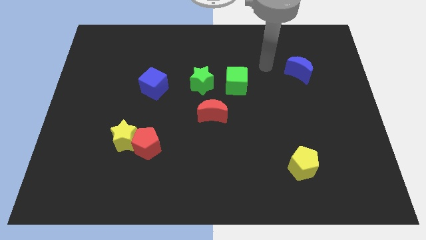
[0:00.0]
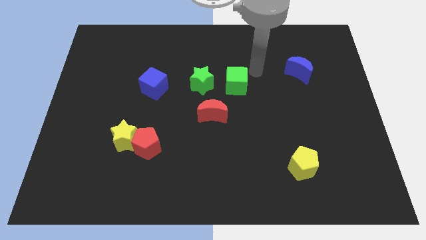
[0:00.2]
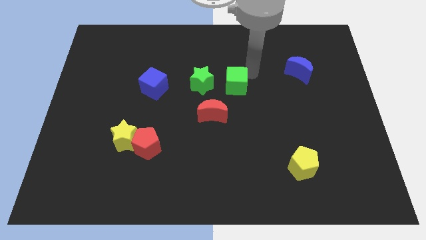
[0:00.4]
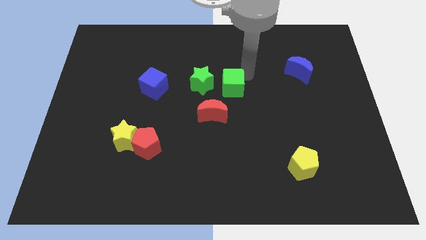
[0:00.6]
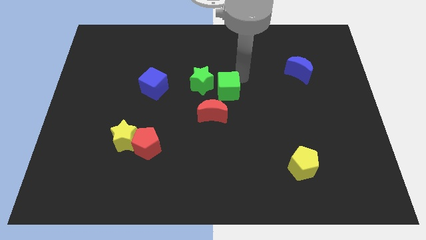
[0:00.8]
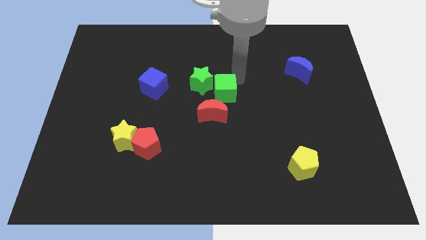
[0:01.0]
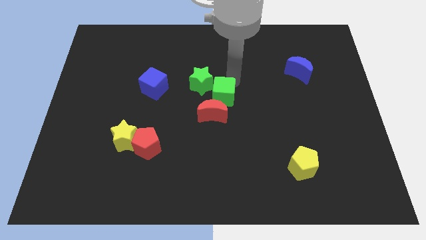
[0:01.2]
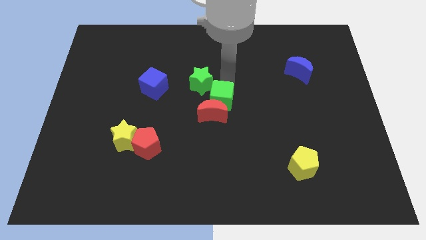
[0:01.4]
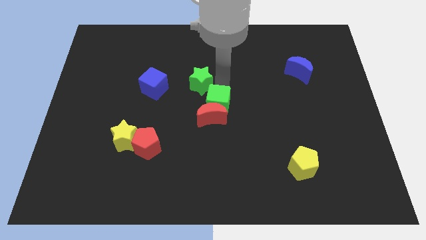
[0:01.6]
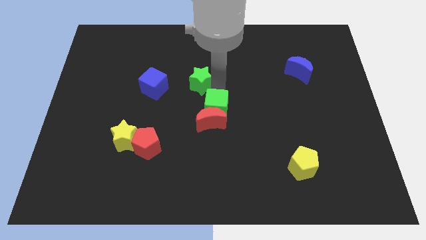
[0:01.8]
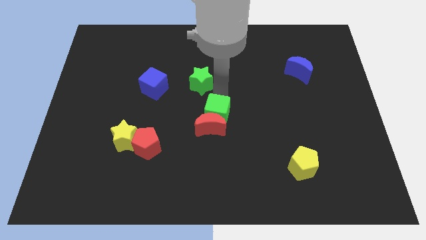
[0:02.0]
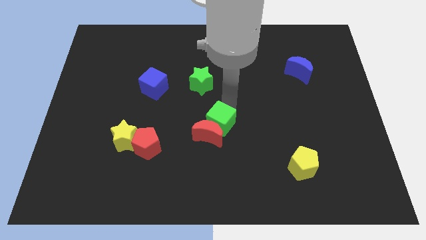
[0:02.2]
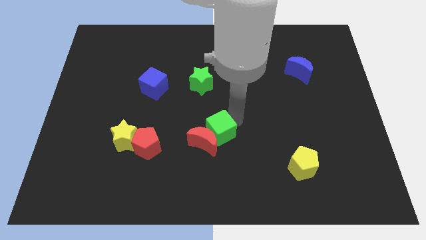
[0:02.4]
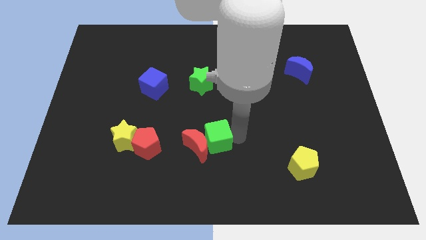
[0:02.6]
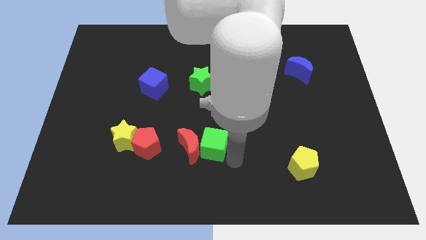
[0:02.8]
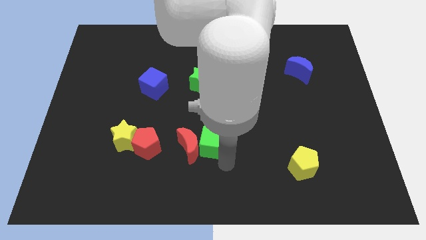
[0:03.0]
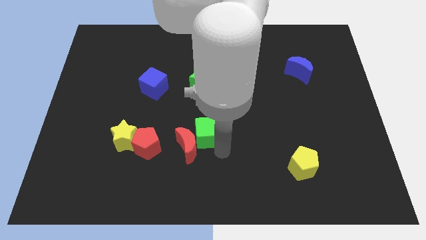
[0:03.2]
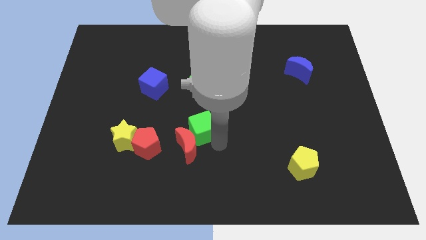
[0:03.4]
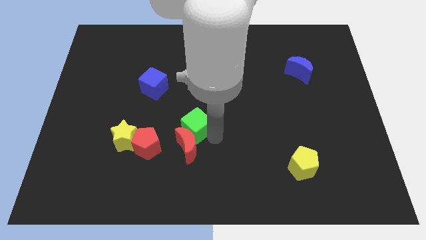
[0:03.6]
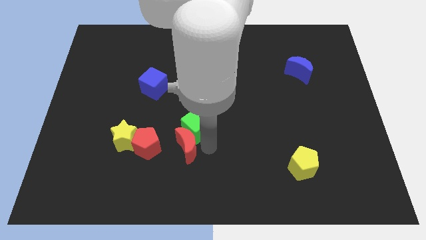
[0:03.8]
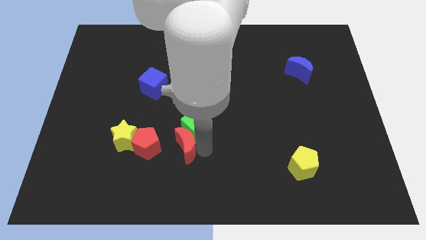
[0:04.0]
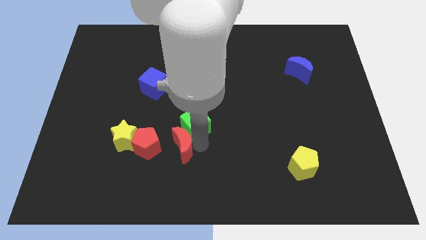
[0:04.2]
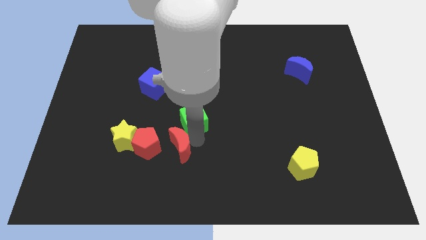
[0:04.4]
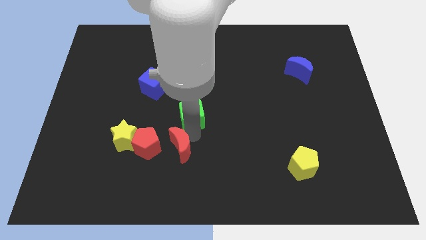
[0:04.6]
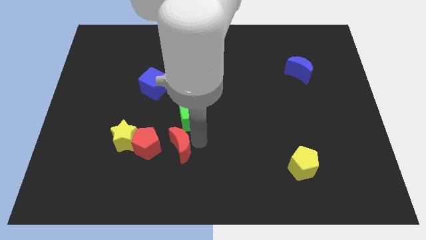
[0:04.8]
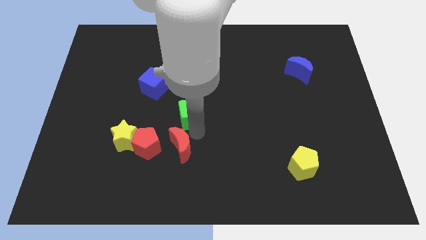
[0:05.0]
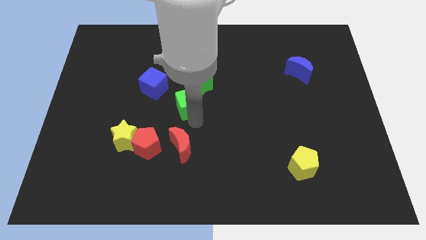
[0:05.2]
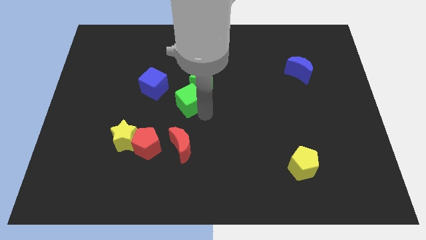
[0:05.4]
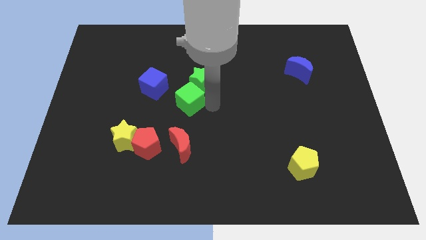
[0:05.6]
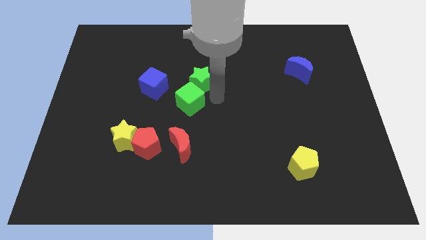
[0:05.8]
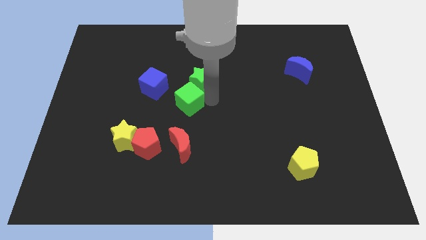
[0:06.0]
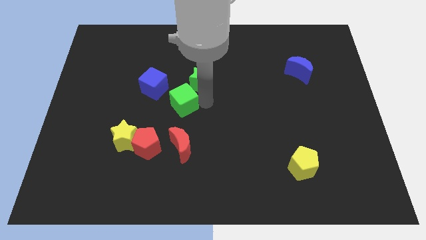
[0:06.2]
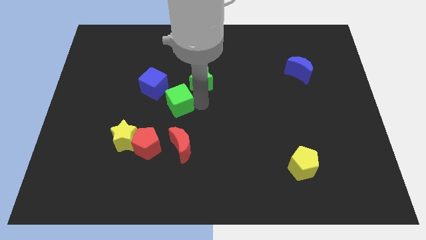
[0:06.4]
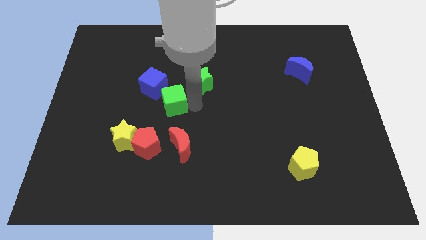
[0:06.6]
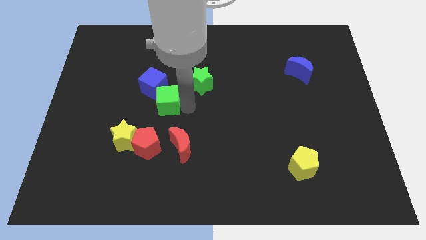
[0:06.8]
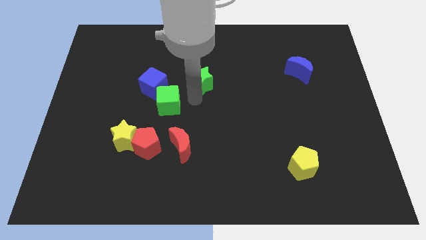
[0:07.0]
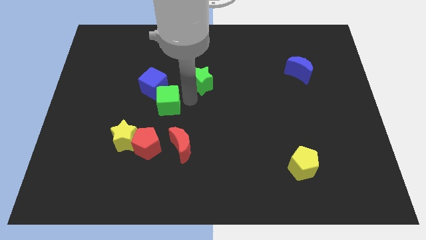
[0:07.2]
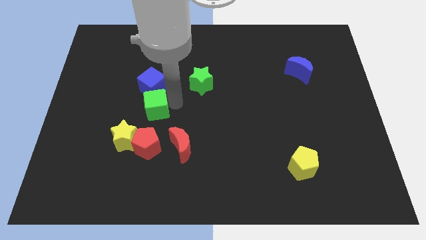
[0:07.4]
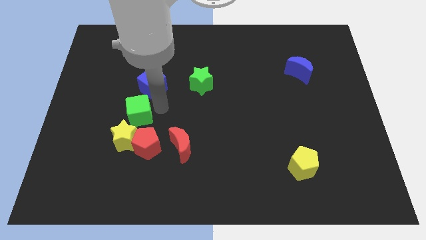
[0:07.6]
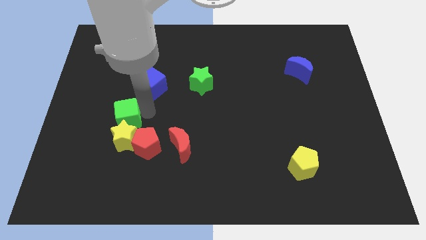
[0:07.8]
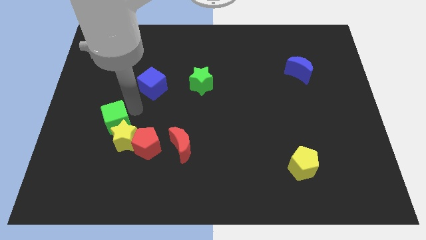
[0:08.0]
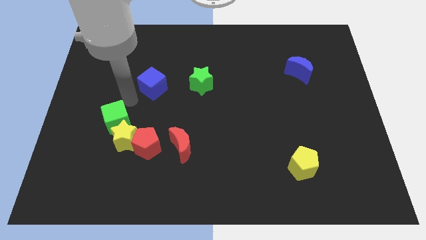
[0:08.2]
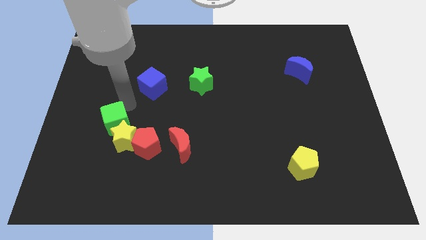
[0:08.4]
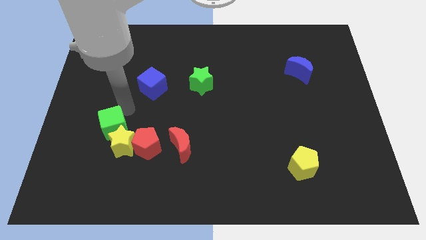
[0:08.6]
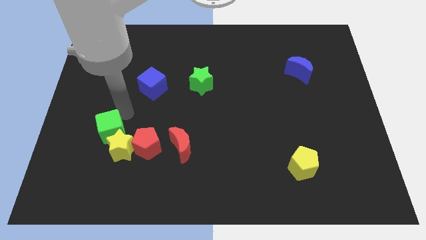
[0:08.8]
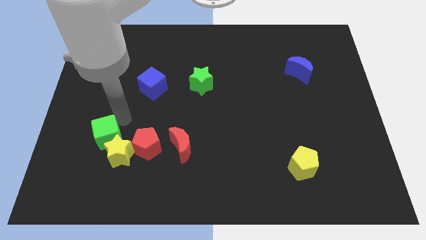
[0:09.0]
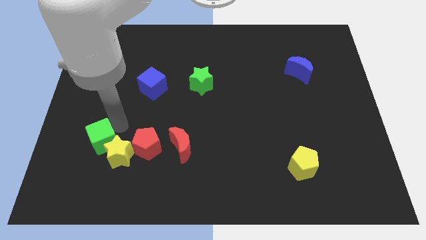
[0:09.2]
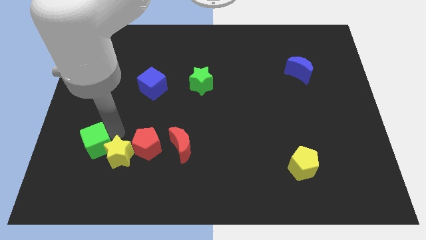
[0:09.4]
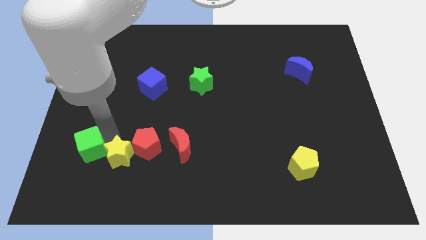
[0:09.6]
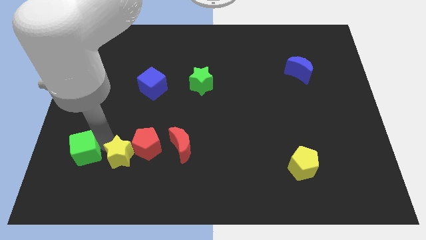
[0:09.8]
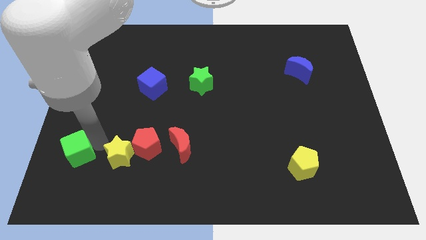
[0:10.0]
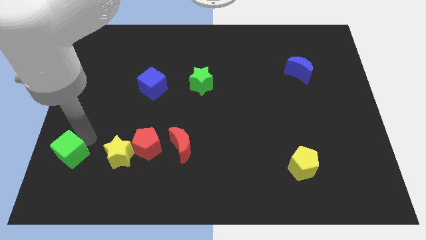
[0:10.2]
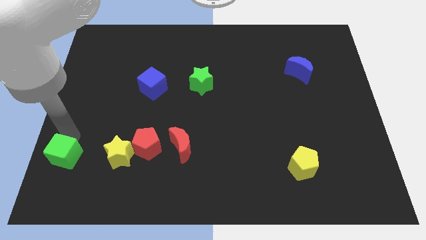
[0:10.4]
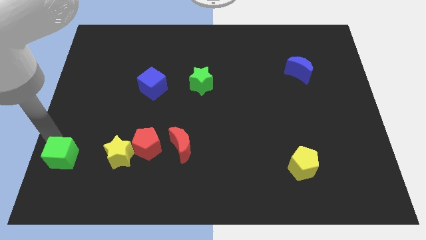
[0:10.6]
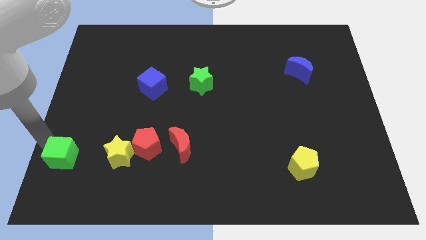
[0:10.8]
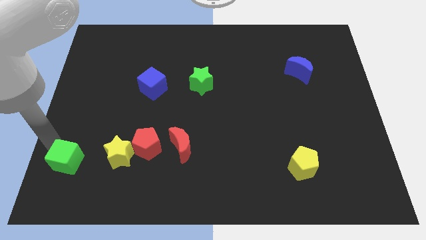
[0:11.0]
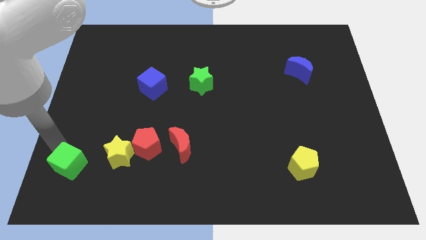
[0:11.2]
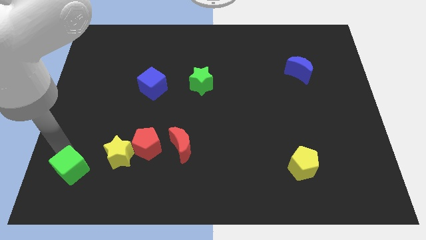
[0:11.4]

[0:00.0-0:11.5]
push the green cube to the bottom left of the yellow star

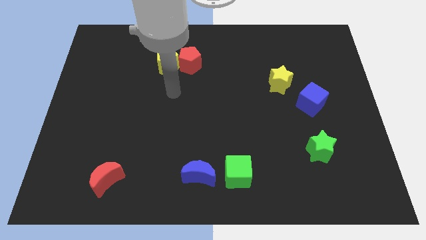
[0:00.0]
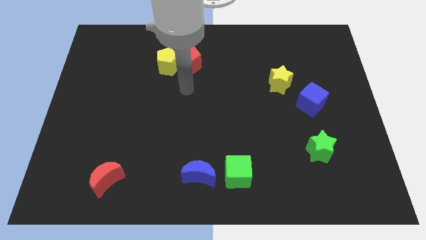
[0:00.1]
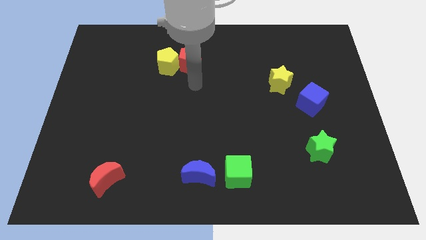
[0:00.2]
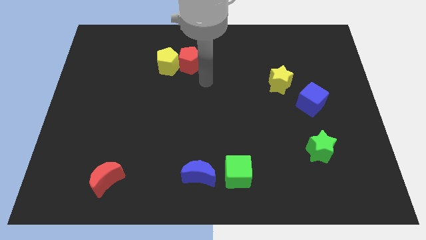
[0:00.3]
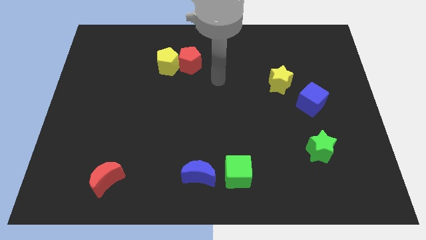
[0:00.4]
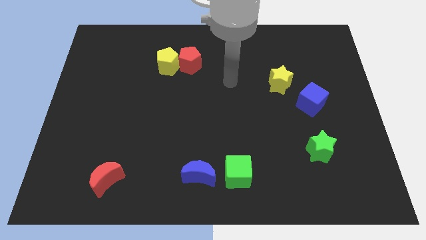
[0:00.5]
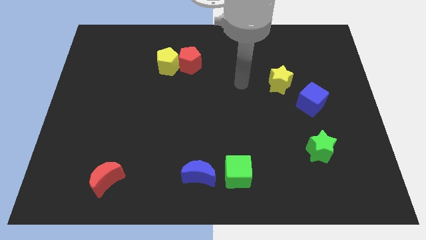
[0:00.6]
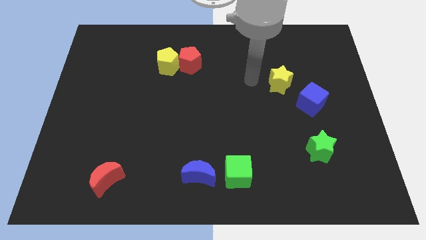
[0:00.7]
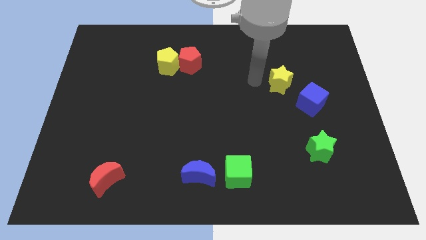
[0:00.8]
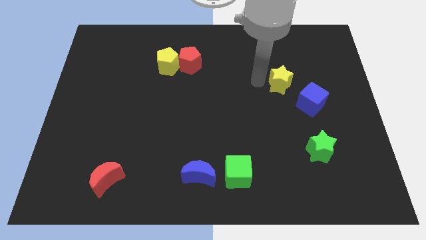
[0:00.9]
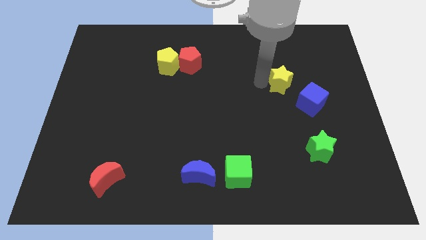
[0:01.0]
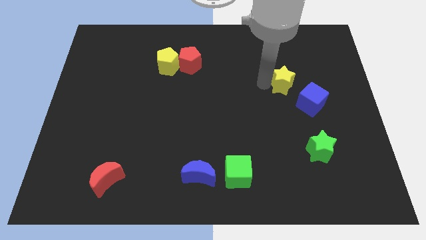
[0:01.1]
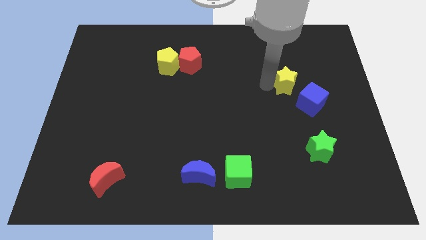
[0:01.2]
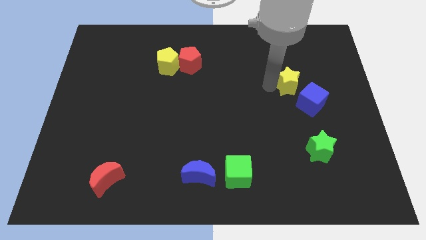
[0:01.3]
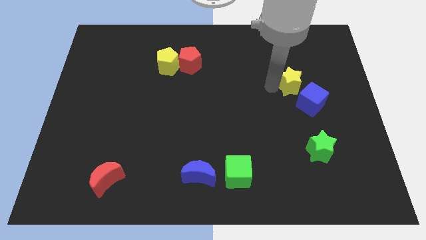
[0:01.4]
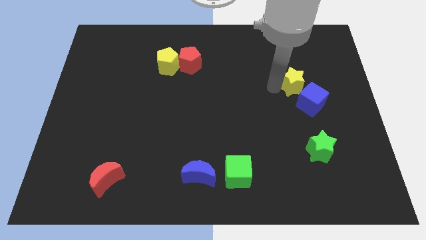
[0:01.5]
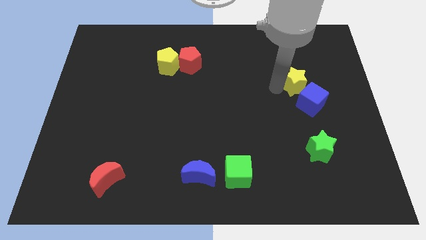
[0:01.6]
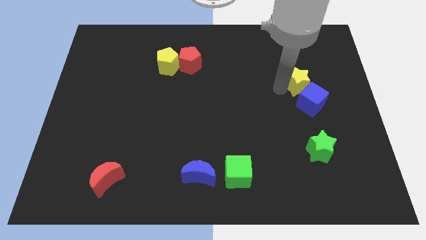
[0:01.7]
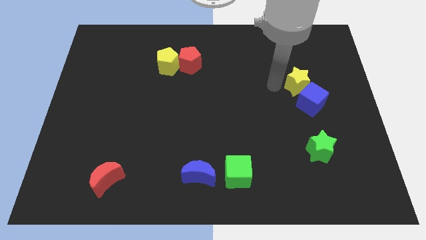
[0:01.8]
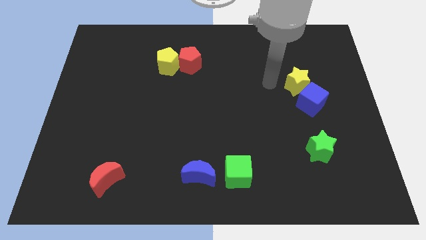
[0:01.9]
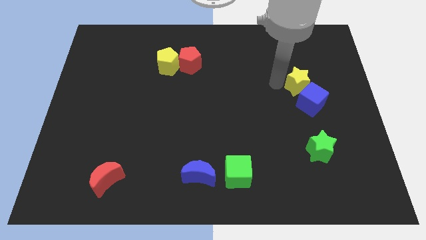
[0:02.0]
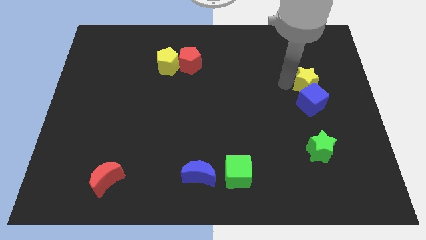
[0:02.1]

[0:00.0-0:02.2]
push the yellow star to the top right of the blue cube

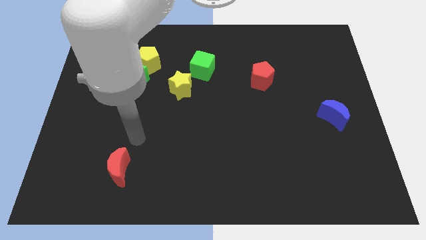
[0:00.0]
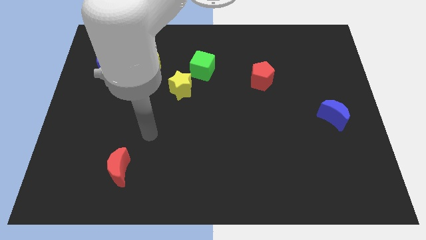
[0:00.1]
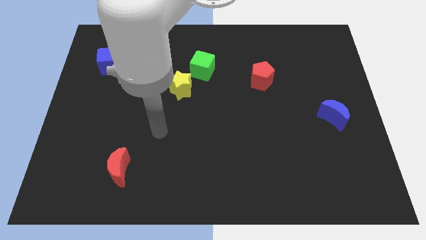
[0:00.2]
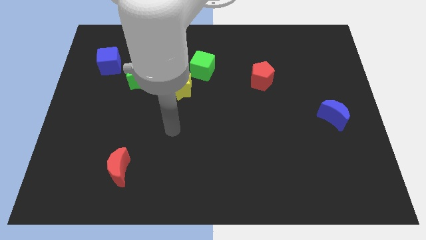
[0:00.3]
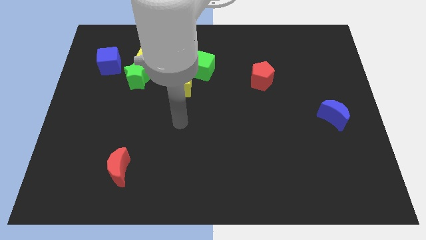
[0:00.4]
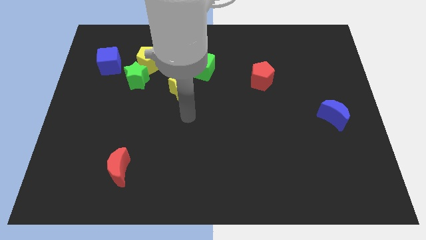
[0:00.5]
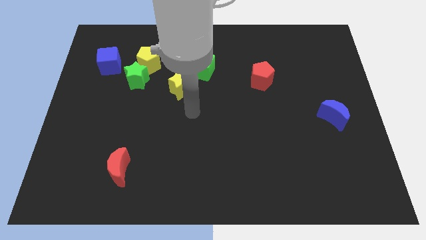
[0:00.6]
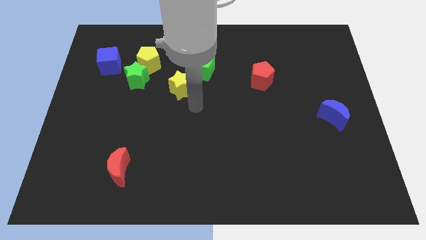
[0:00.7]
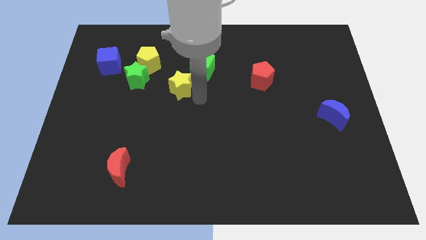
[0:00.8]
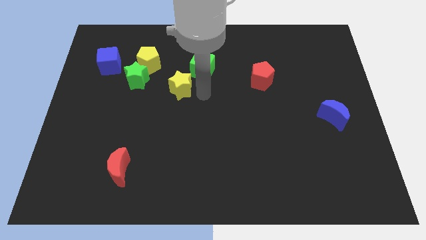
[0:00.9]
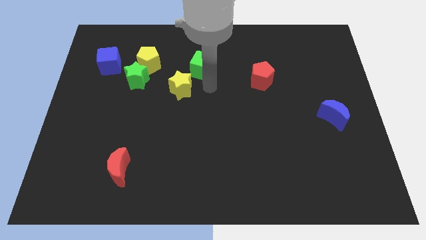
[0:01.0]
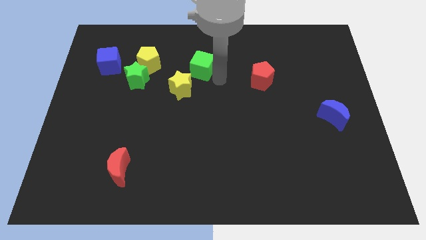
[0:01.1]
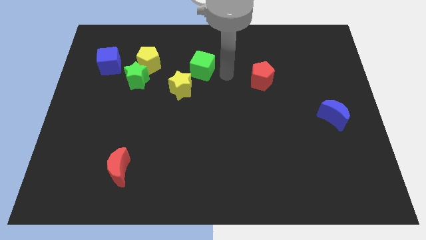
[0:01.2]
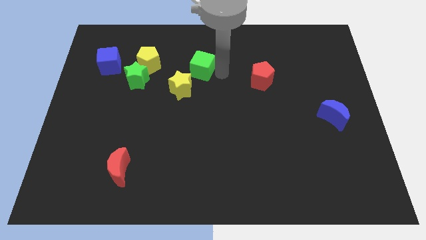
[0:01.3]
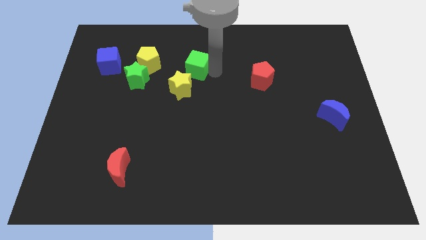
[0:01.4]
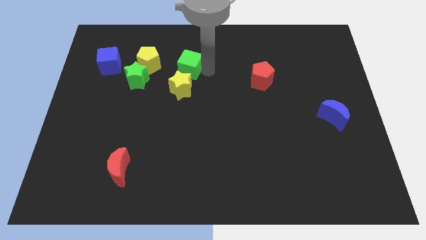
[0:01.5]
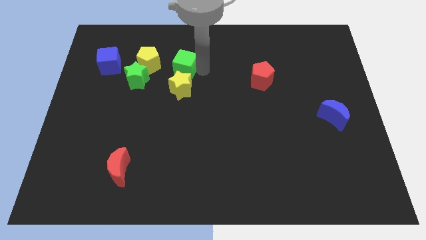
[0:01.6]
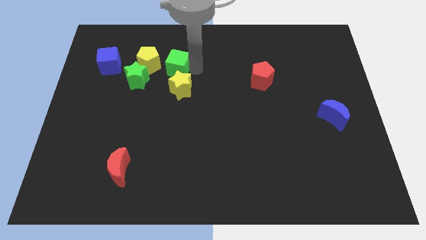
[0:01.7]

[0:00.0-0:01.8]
slide the green cube diagonally up and to the right of the green star
